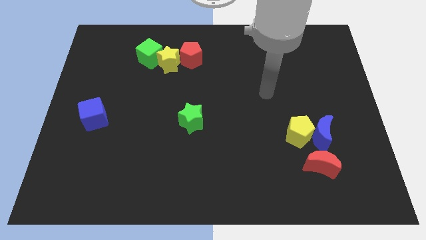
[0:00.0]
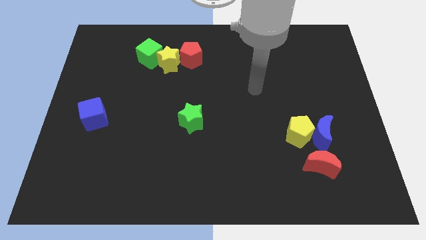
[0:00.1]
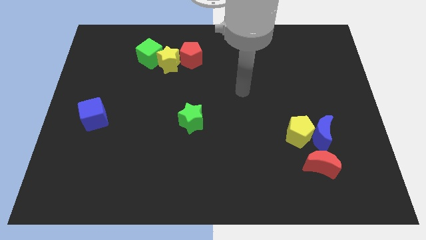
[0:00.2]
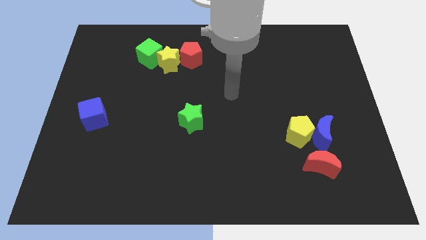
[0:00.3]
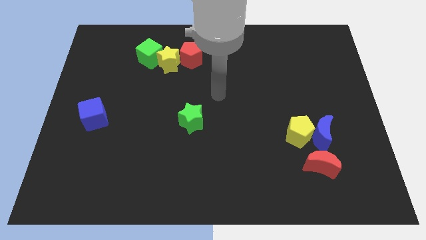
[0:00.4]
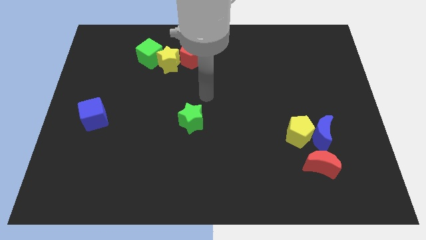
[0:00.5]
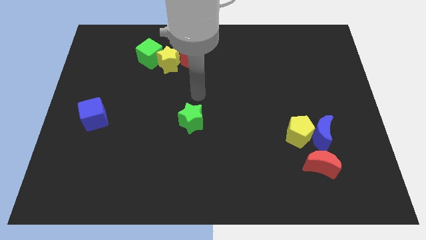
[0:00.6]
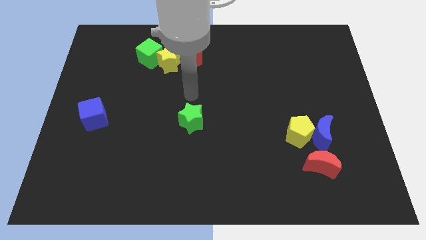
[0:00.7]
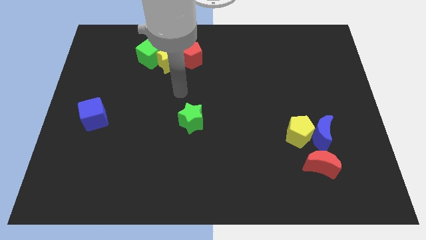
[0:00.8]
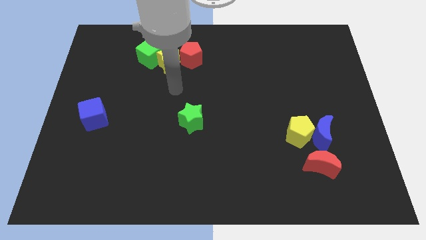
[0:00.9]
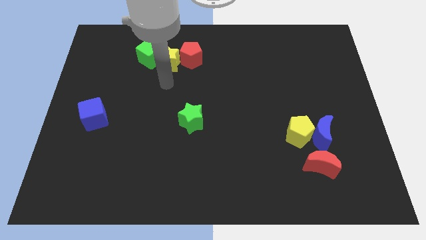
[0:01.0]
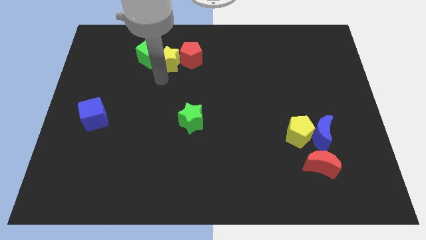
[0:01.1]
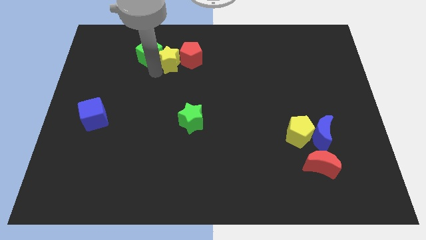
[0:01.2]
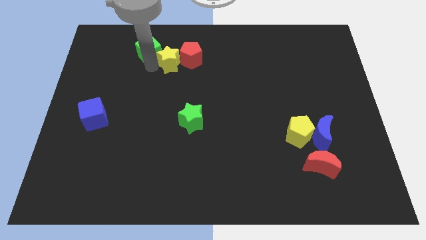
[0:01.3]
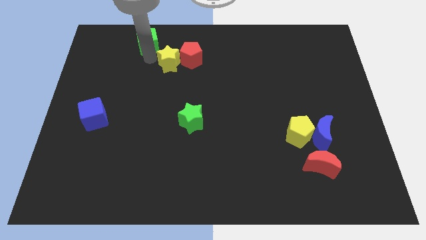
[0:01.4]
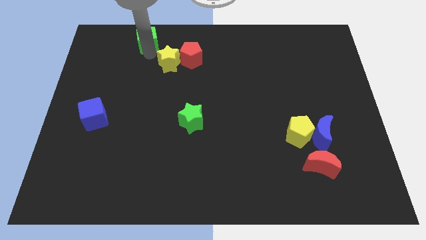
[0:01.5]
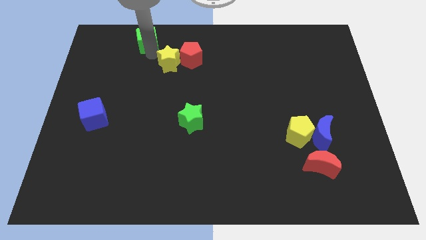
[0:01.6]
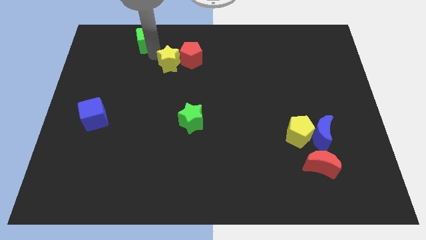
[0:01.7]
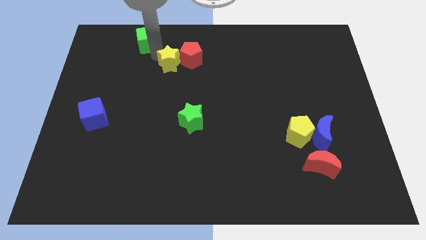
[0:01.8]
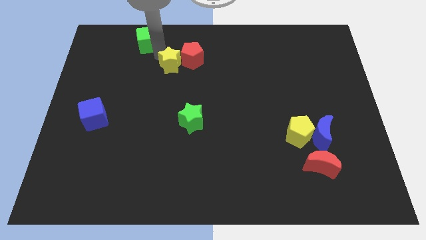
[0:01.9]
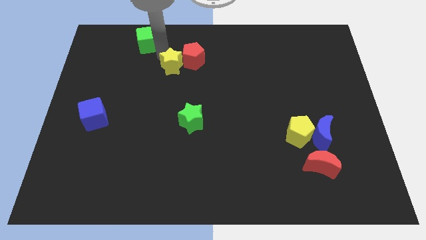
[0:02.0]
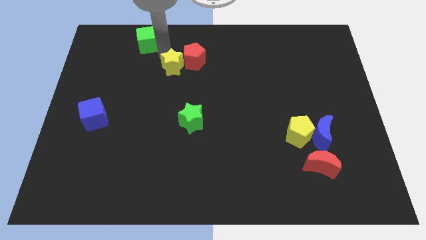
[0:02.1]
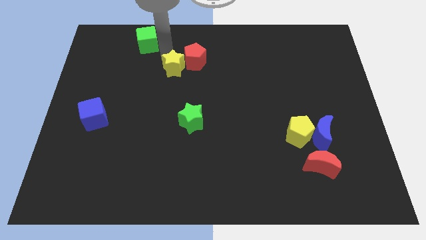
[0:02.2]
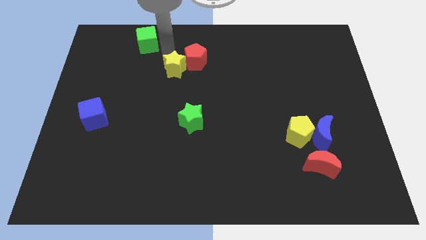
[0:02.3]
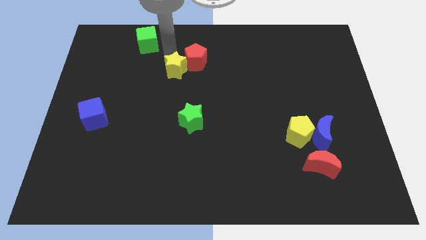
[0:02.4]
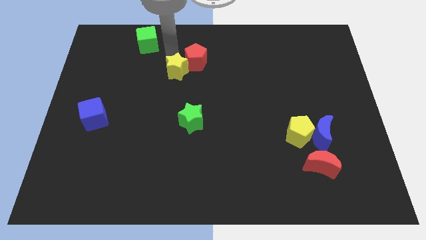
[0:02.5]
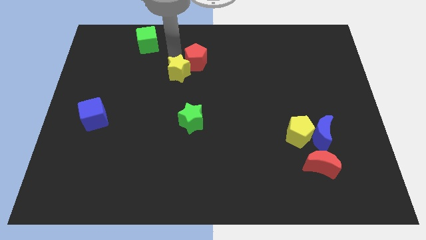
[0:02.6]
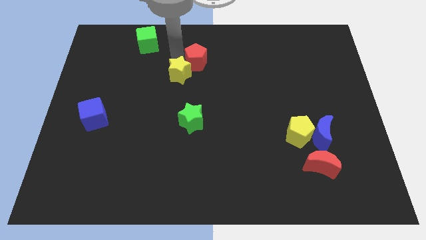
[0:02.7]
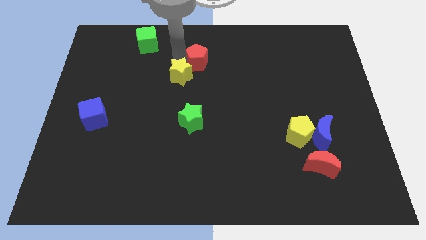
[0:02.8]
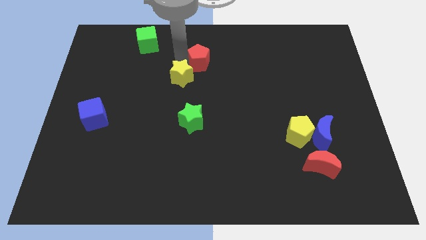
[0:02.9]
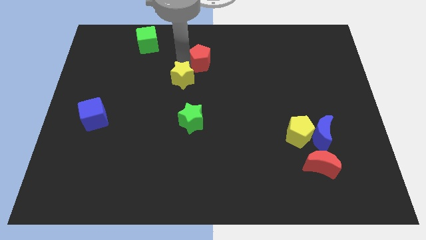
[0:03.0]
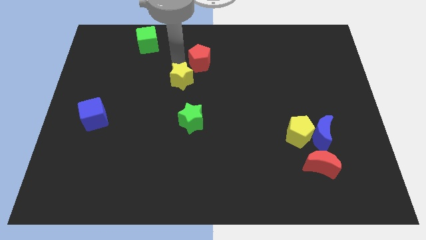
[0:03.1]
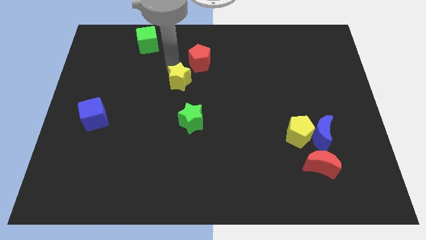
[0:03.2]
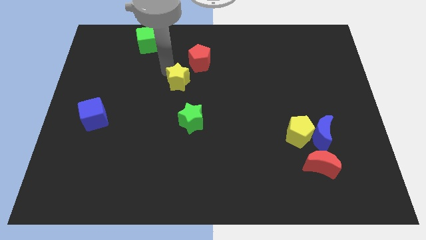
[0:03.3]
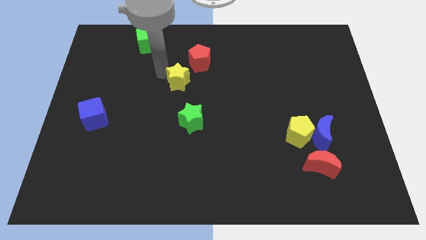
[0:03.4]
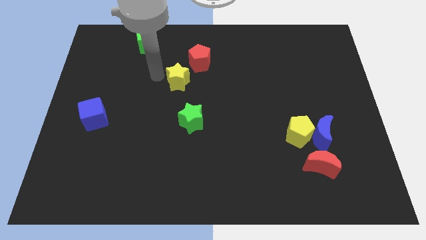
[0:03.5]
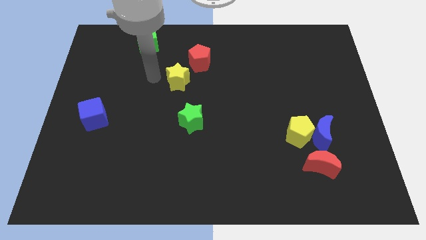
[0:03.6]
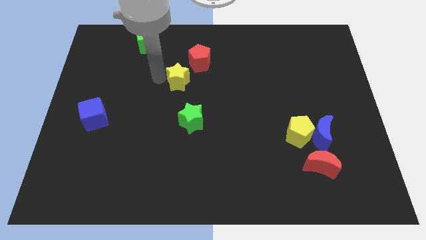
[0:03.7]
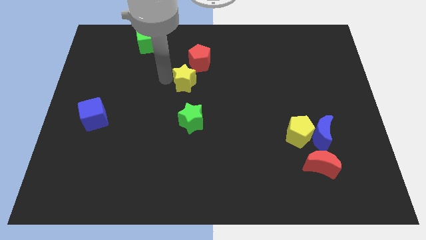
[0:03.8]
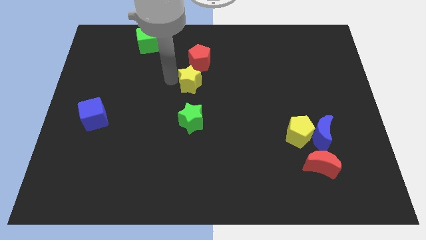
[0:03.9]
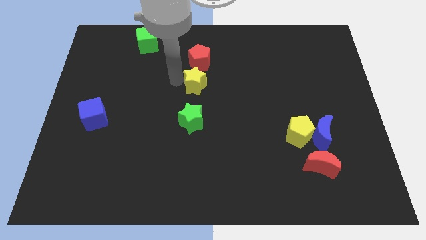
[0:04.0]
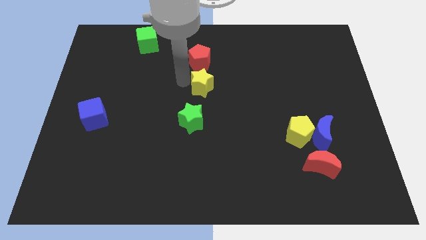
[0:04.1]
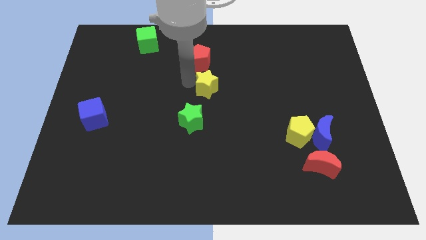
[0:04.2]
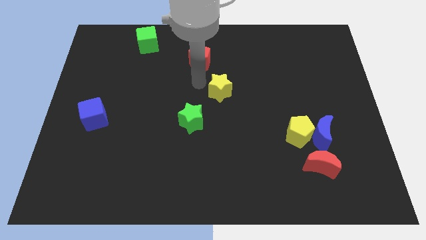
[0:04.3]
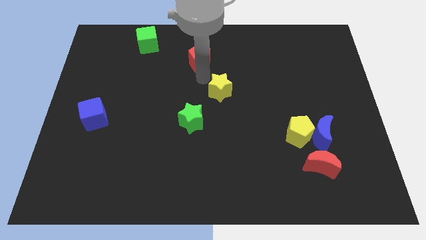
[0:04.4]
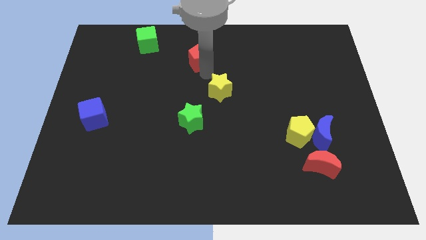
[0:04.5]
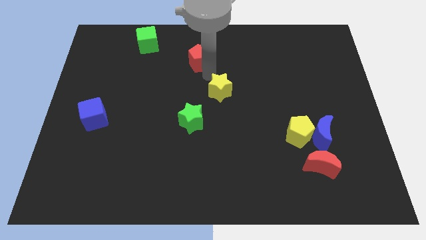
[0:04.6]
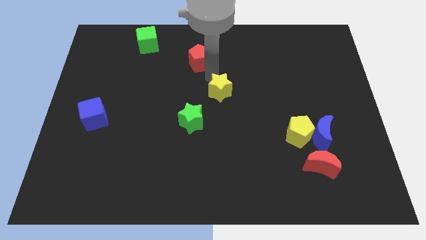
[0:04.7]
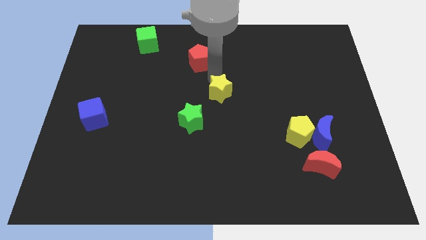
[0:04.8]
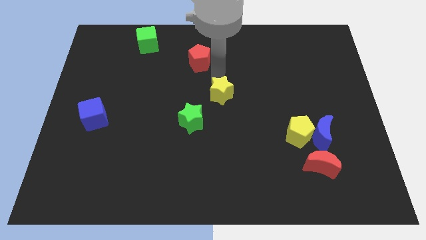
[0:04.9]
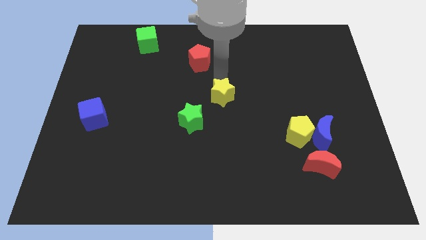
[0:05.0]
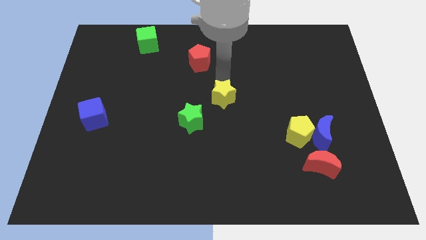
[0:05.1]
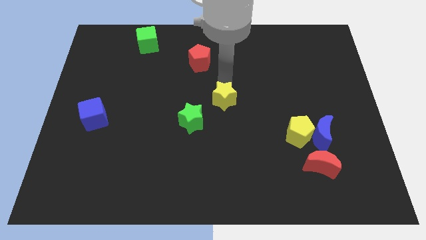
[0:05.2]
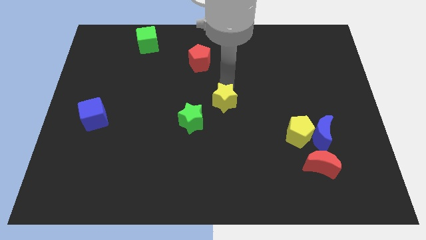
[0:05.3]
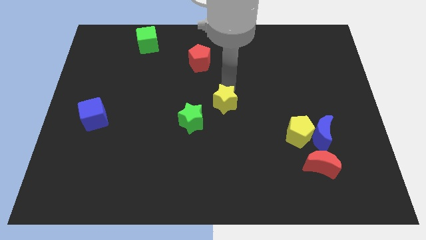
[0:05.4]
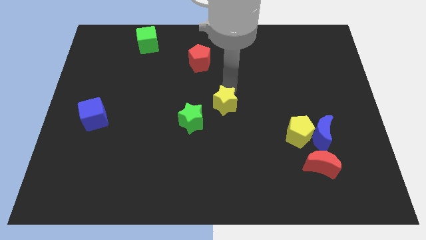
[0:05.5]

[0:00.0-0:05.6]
push the yellow star down and to the right

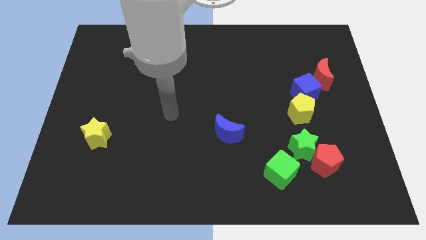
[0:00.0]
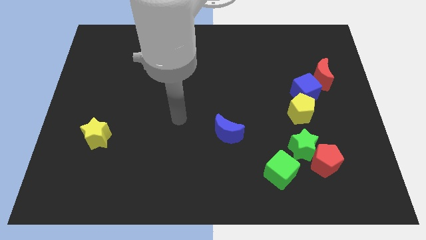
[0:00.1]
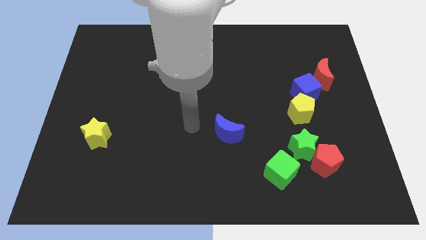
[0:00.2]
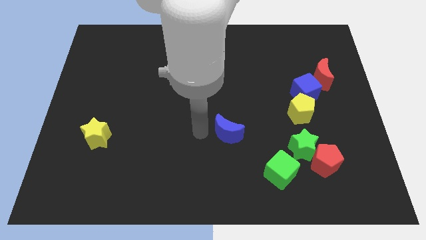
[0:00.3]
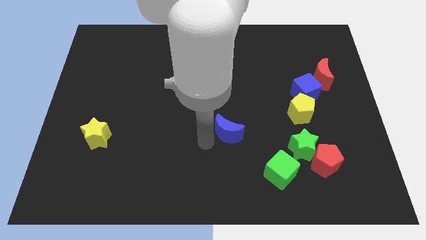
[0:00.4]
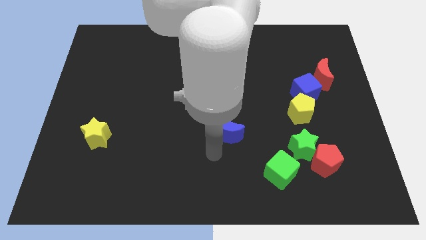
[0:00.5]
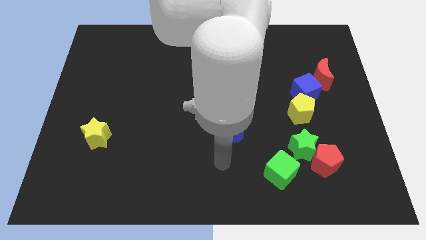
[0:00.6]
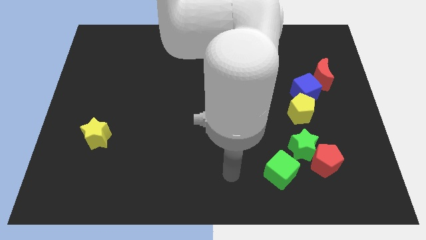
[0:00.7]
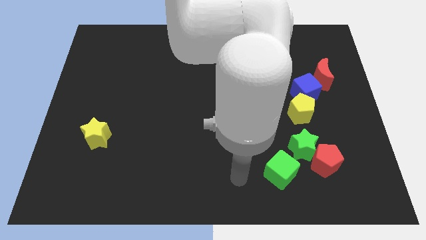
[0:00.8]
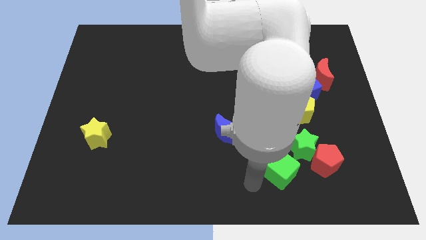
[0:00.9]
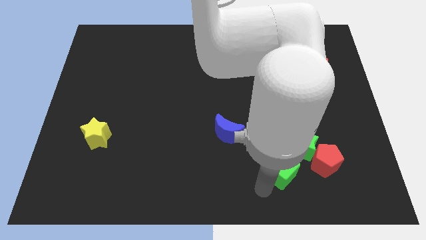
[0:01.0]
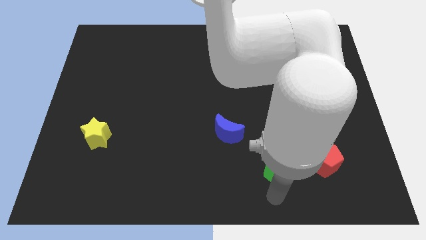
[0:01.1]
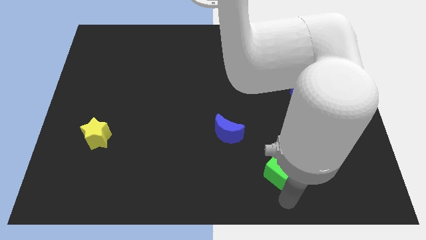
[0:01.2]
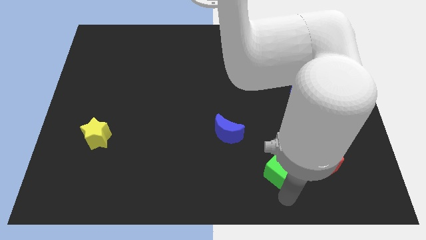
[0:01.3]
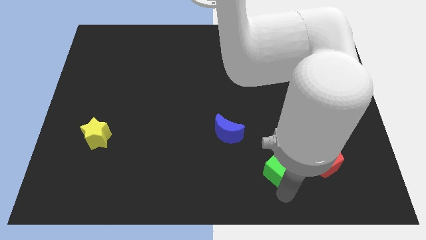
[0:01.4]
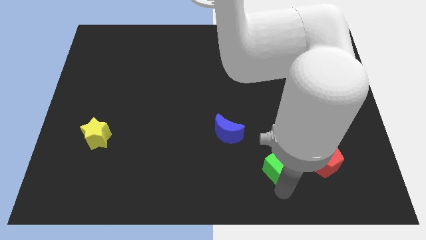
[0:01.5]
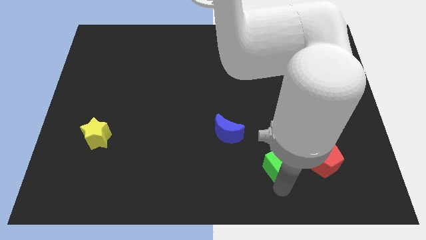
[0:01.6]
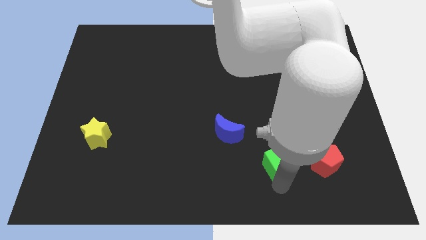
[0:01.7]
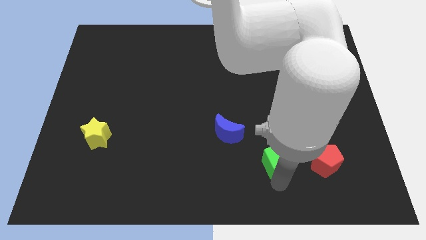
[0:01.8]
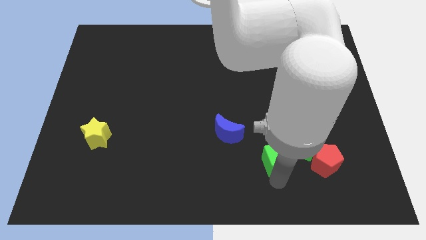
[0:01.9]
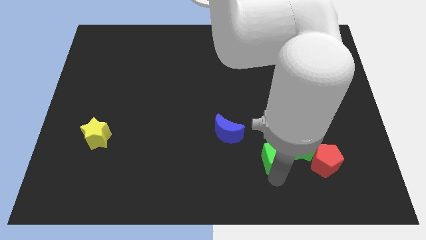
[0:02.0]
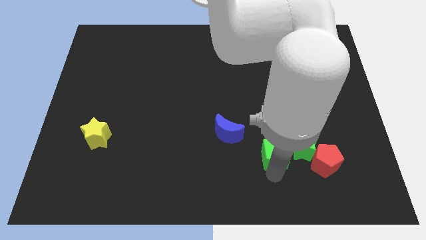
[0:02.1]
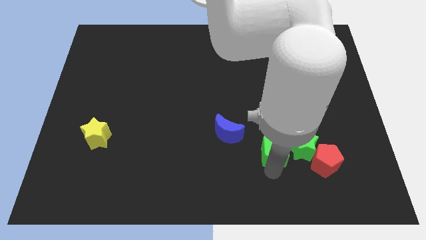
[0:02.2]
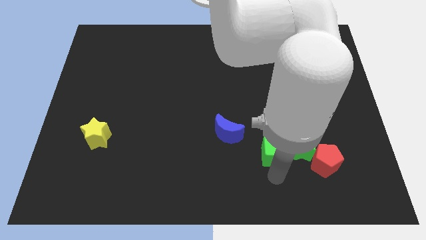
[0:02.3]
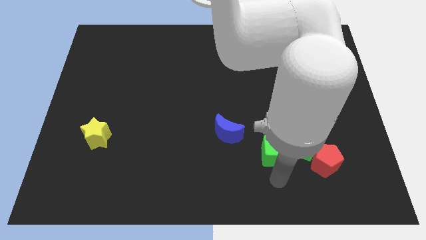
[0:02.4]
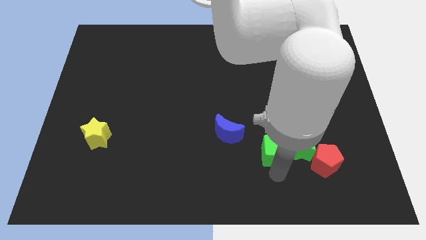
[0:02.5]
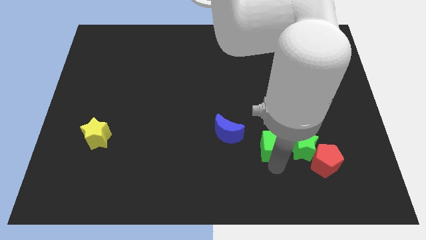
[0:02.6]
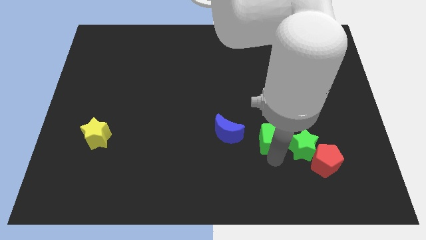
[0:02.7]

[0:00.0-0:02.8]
push the green cube upwards a little
